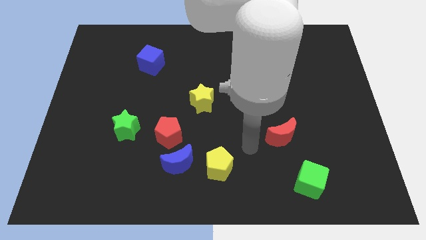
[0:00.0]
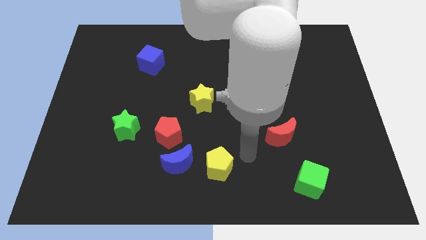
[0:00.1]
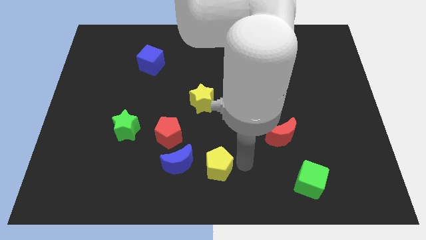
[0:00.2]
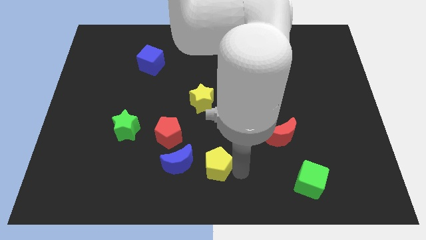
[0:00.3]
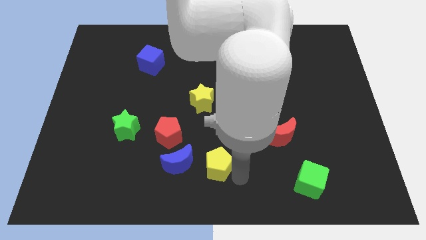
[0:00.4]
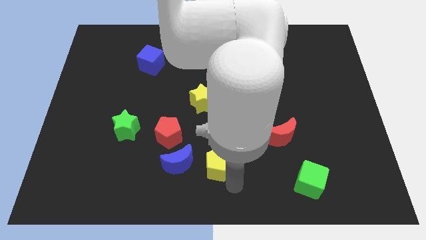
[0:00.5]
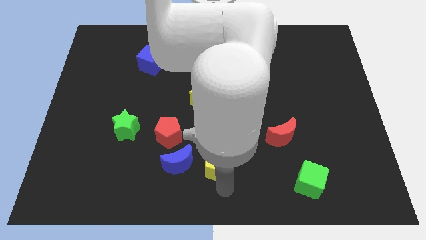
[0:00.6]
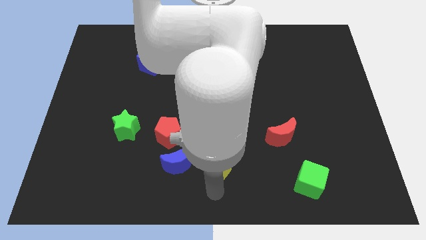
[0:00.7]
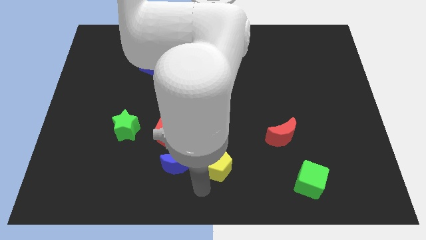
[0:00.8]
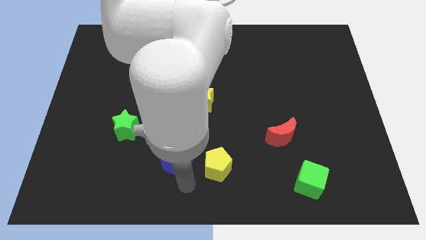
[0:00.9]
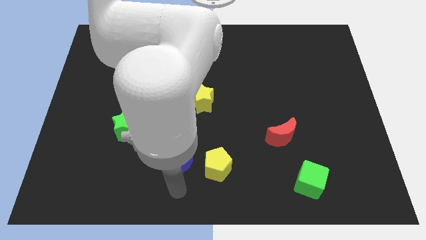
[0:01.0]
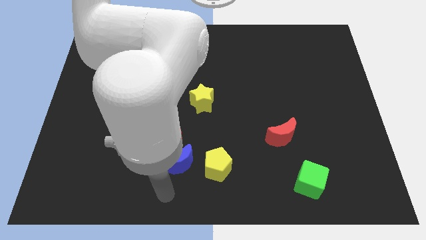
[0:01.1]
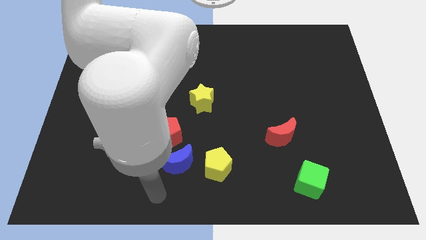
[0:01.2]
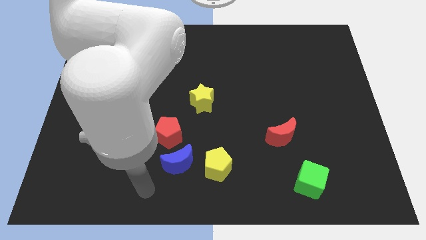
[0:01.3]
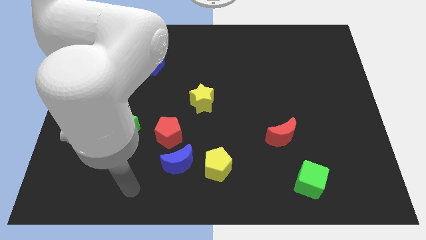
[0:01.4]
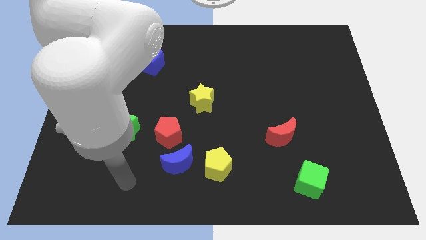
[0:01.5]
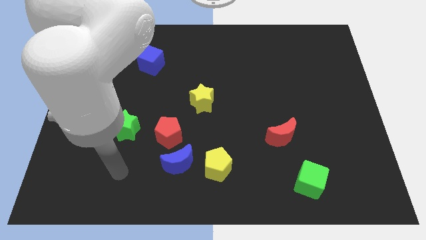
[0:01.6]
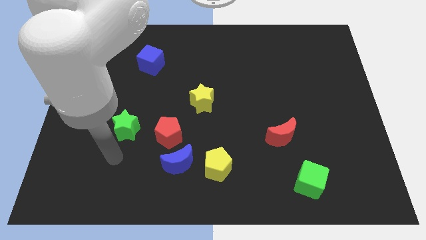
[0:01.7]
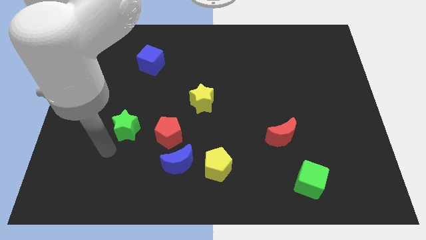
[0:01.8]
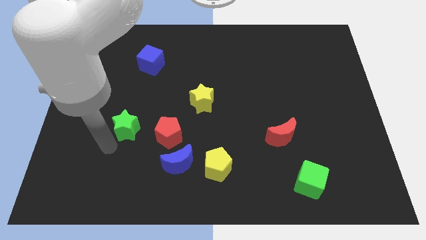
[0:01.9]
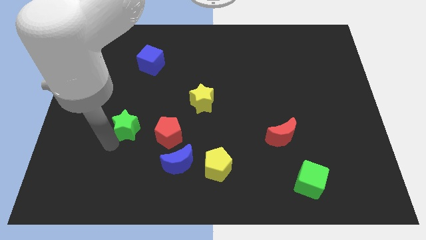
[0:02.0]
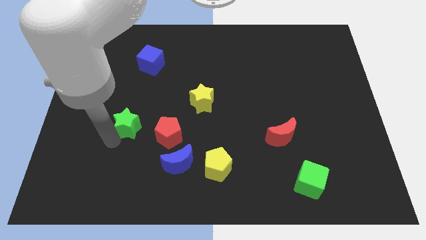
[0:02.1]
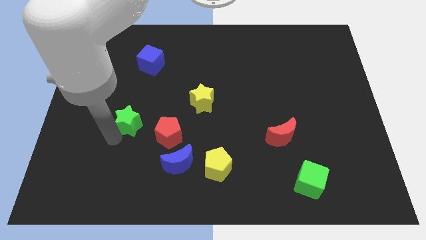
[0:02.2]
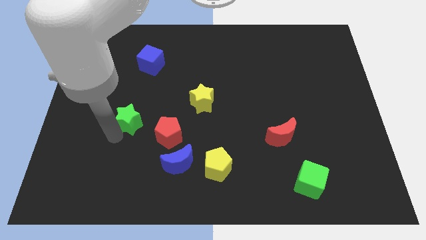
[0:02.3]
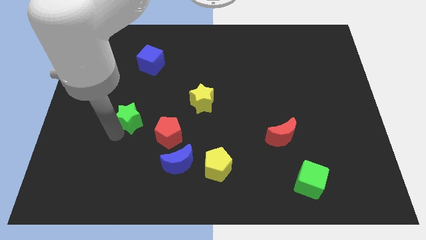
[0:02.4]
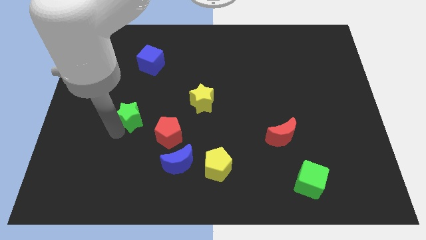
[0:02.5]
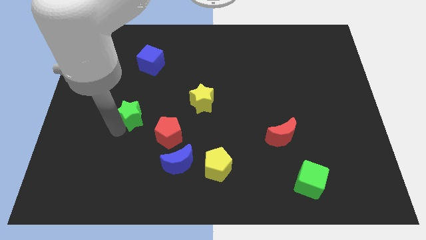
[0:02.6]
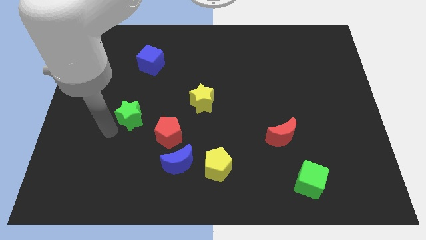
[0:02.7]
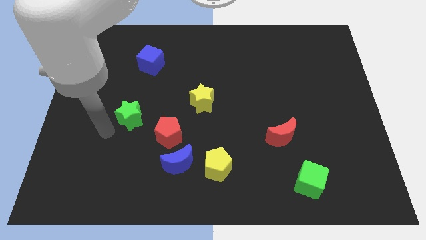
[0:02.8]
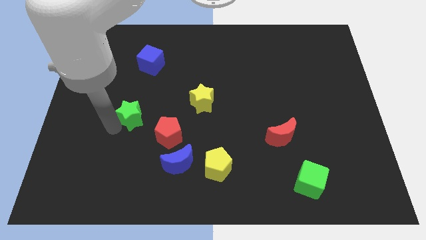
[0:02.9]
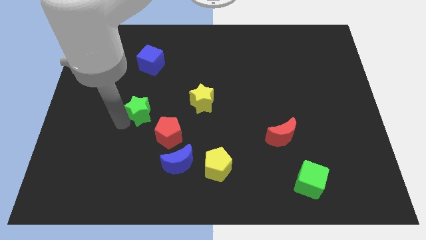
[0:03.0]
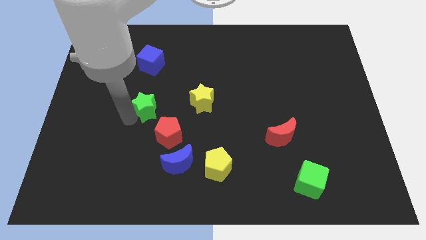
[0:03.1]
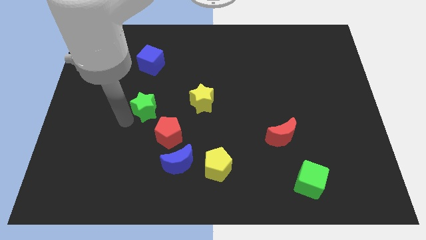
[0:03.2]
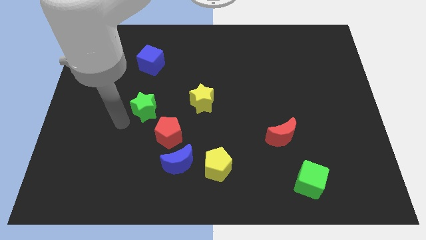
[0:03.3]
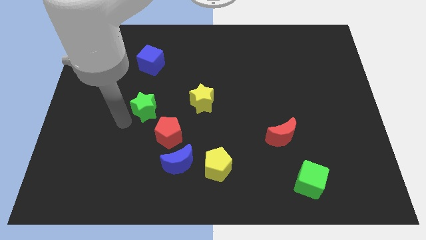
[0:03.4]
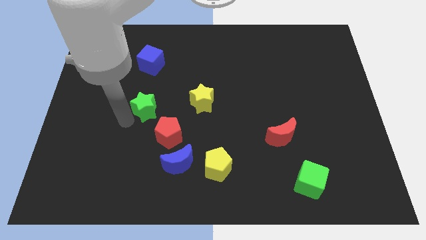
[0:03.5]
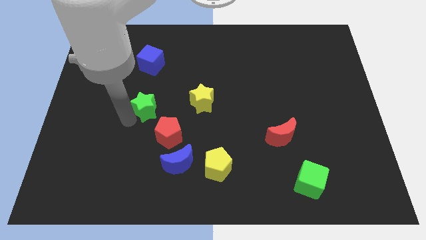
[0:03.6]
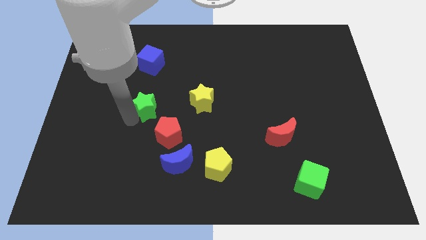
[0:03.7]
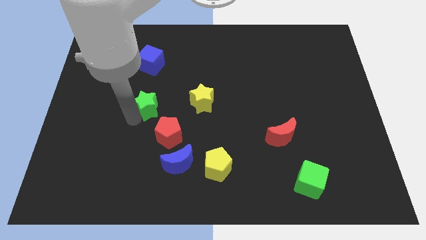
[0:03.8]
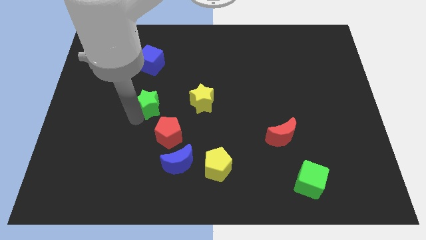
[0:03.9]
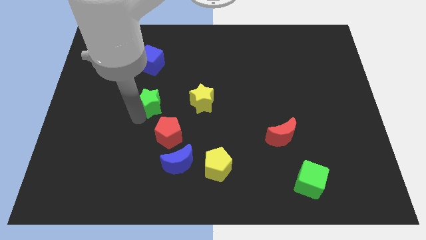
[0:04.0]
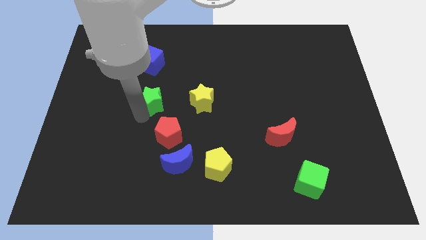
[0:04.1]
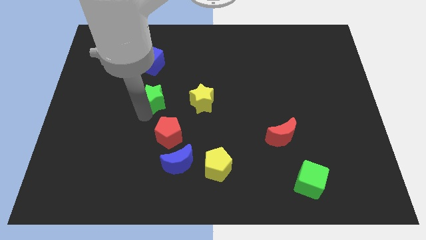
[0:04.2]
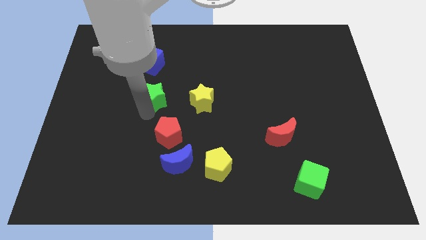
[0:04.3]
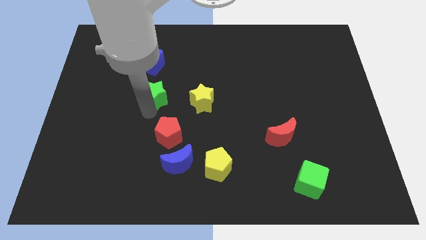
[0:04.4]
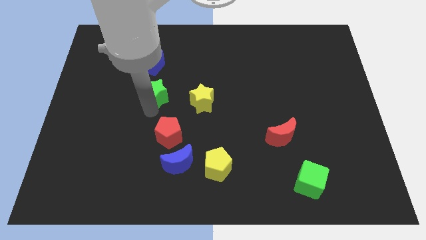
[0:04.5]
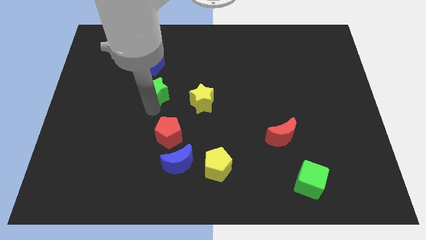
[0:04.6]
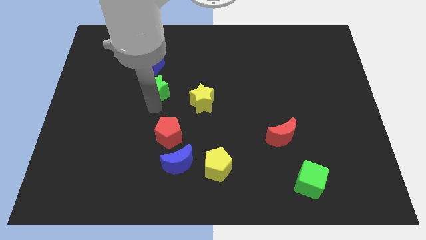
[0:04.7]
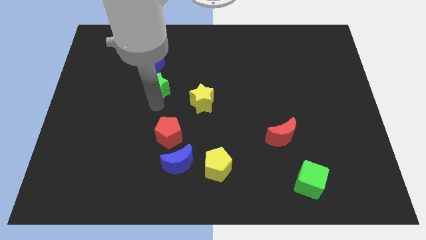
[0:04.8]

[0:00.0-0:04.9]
put the green star diagonally down and to the right of the blue cube

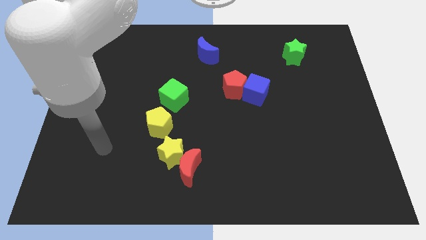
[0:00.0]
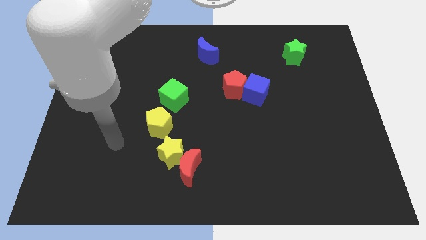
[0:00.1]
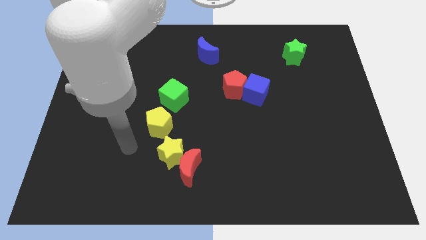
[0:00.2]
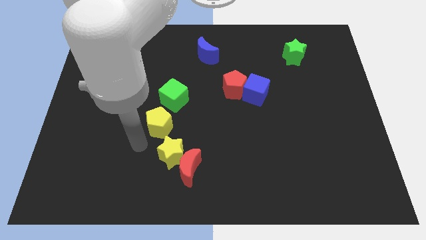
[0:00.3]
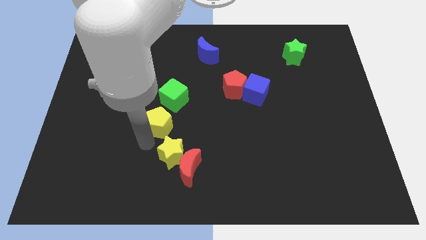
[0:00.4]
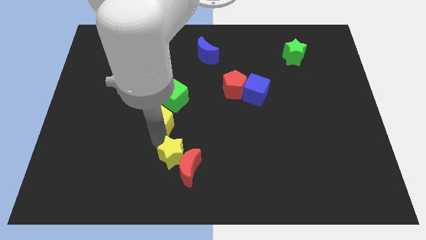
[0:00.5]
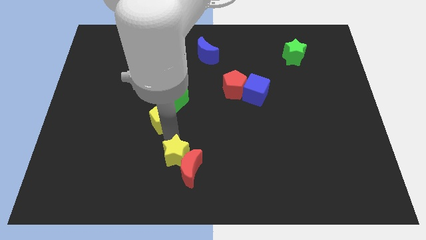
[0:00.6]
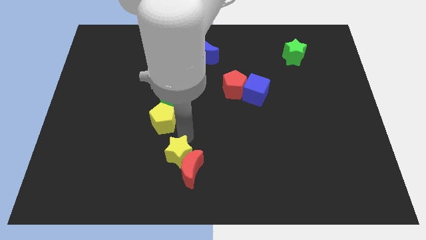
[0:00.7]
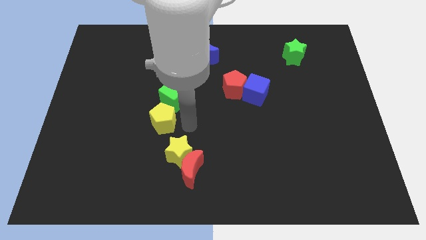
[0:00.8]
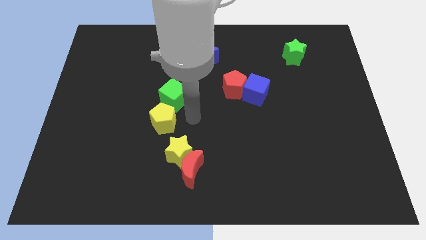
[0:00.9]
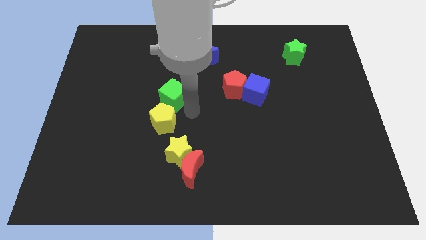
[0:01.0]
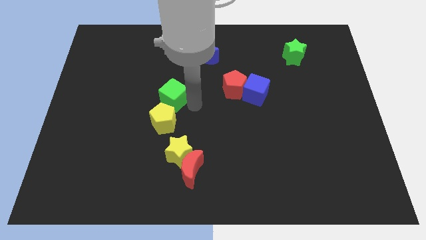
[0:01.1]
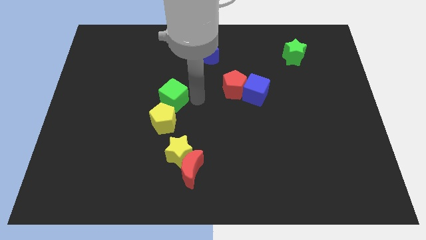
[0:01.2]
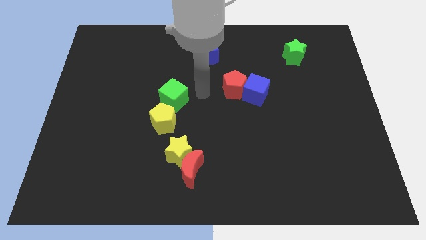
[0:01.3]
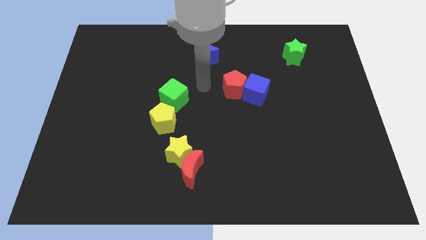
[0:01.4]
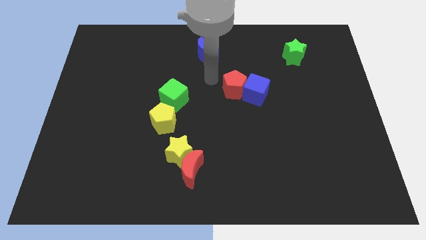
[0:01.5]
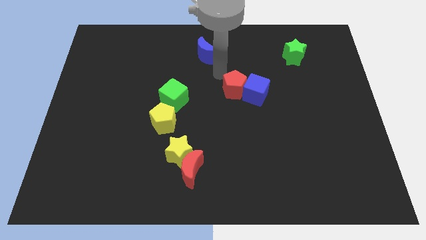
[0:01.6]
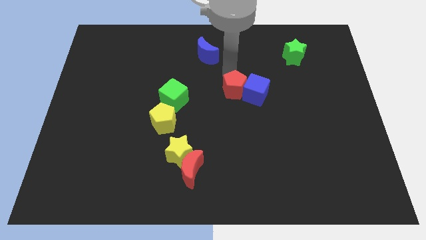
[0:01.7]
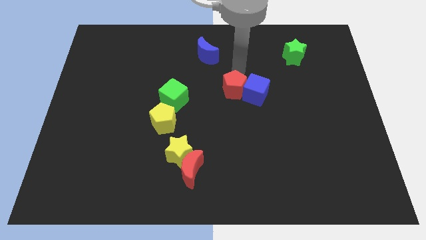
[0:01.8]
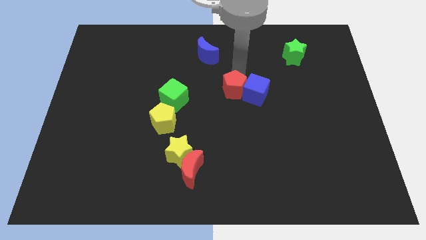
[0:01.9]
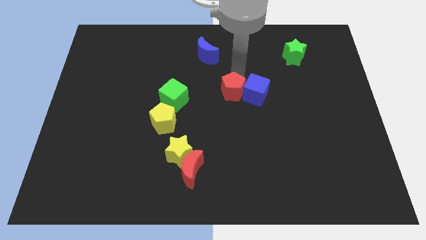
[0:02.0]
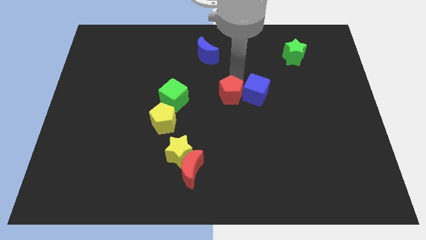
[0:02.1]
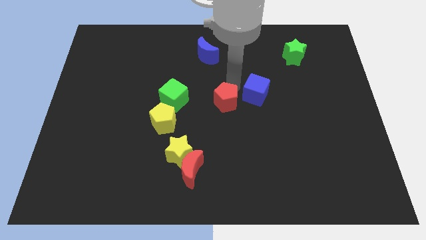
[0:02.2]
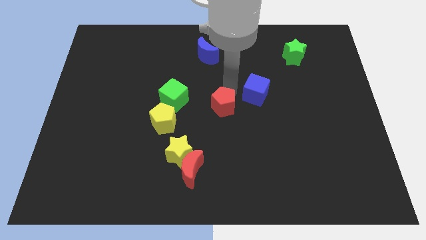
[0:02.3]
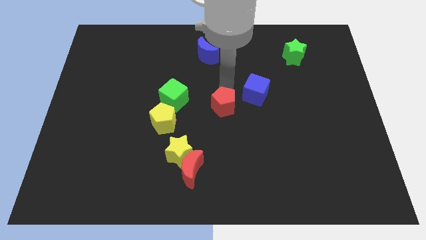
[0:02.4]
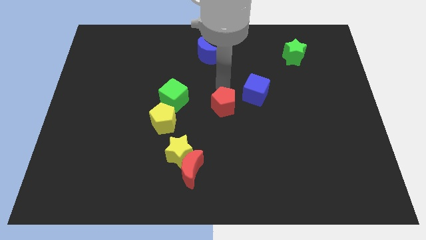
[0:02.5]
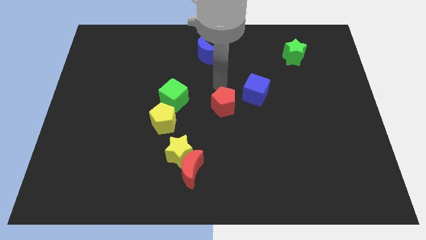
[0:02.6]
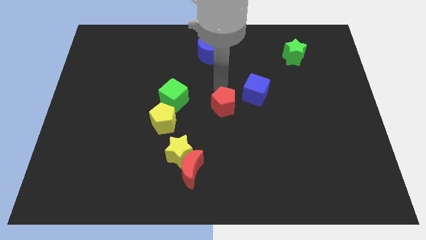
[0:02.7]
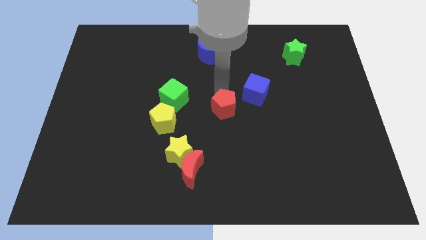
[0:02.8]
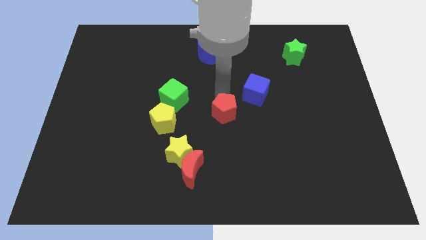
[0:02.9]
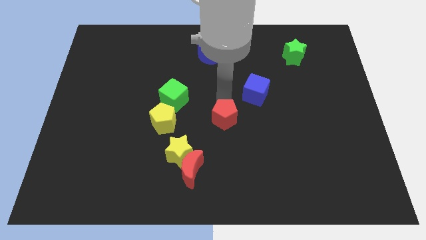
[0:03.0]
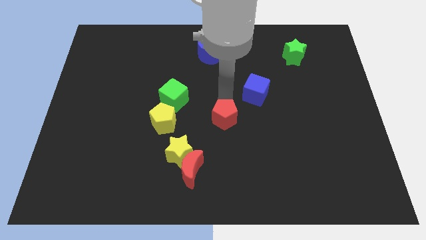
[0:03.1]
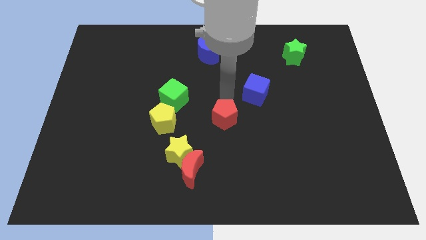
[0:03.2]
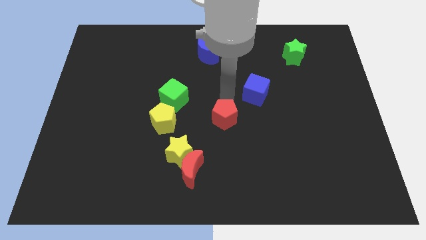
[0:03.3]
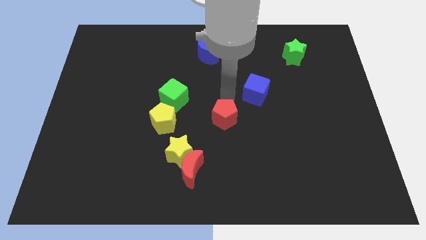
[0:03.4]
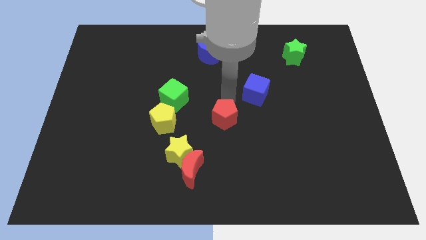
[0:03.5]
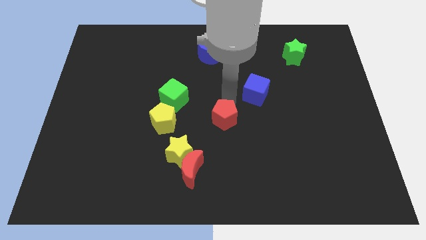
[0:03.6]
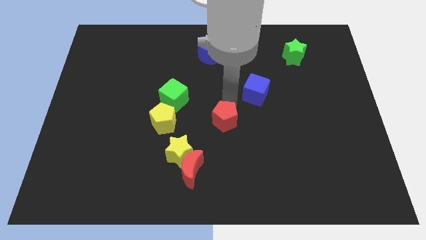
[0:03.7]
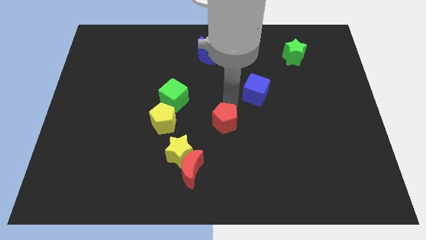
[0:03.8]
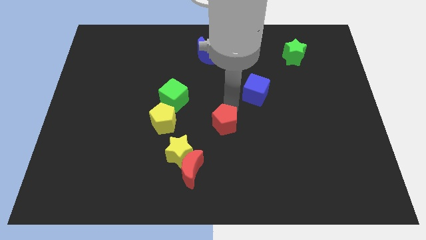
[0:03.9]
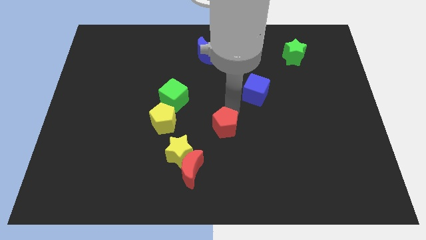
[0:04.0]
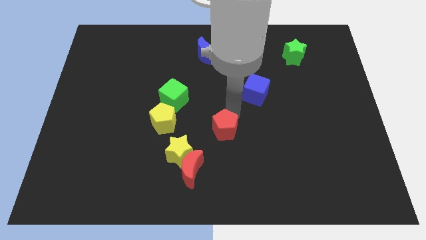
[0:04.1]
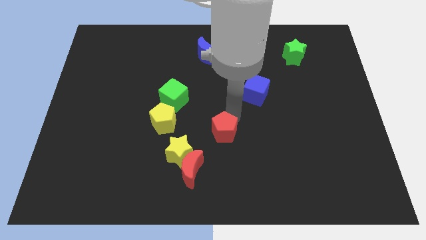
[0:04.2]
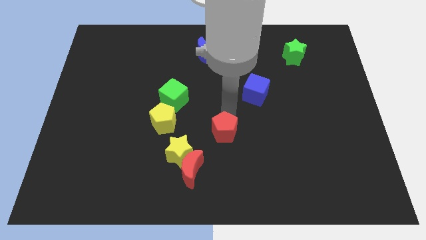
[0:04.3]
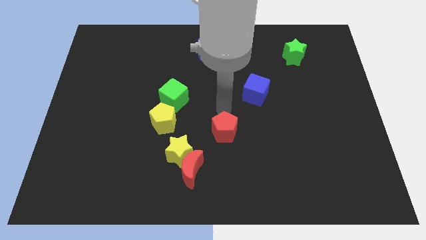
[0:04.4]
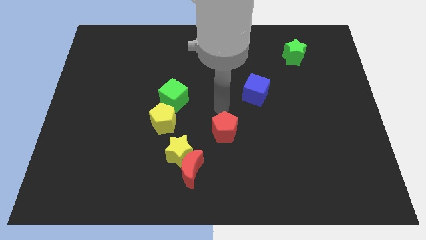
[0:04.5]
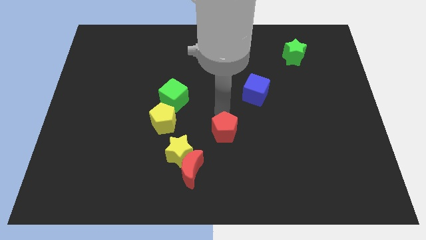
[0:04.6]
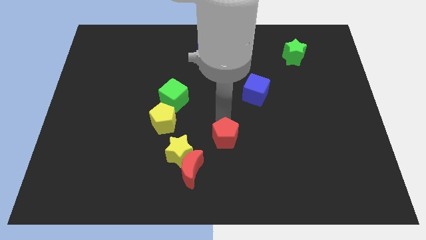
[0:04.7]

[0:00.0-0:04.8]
push the red pentagon just right of the yellow star
